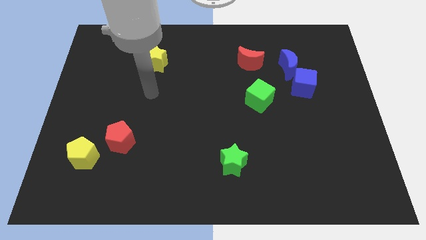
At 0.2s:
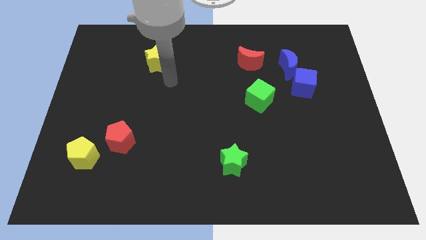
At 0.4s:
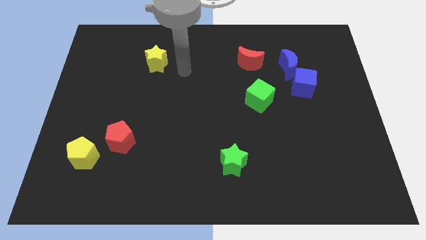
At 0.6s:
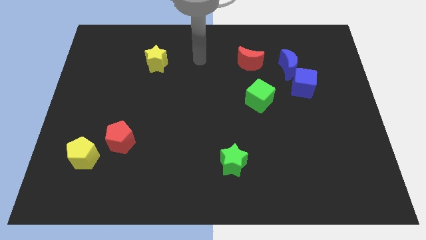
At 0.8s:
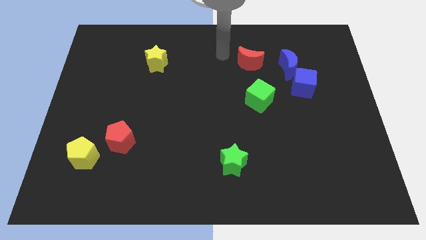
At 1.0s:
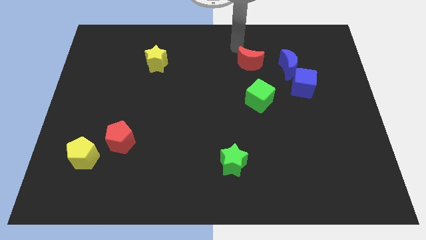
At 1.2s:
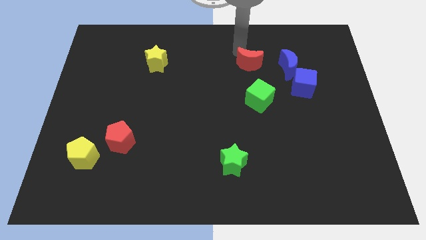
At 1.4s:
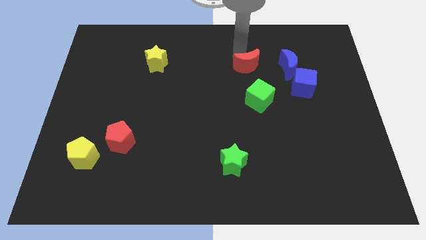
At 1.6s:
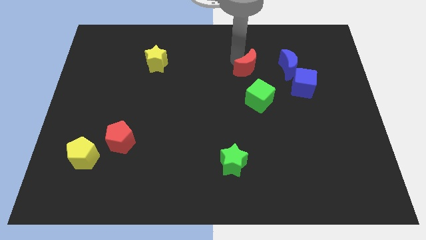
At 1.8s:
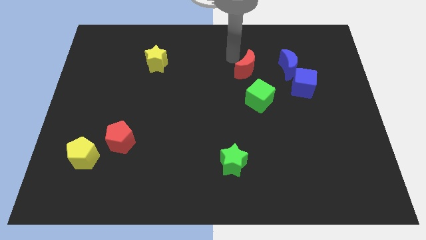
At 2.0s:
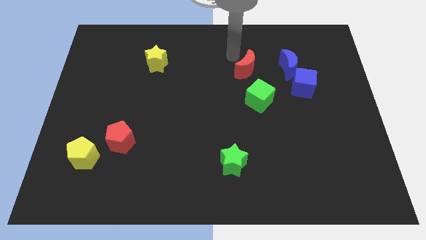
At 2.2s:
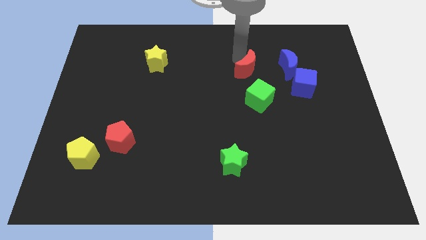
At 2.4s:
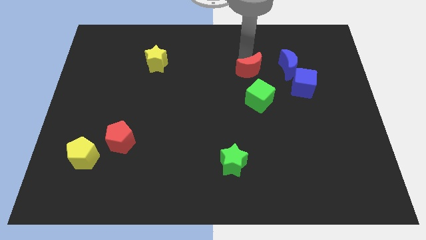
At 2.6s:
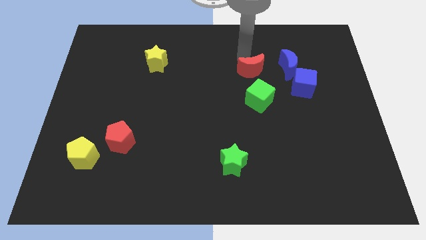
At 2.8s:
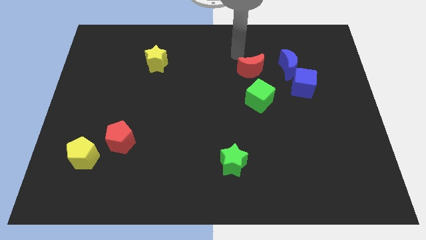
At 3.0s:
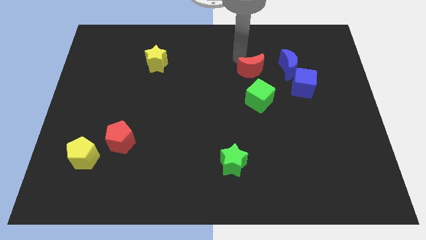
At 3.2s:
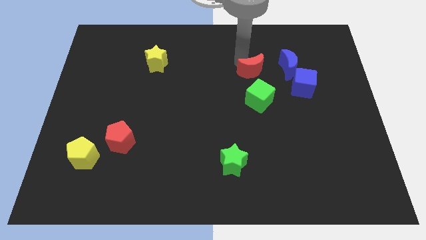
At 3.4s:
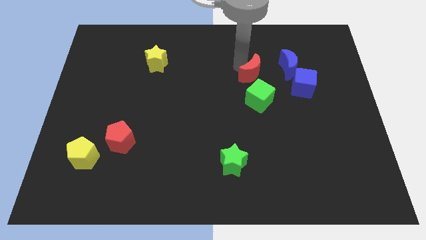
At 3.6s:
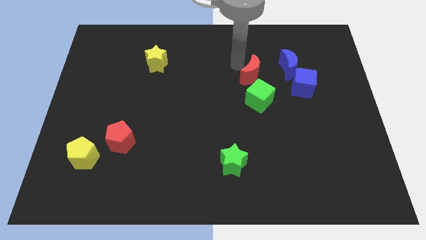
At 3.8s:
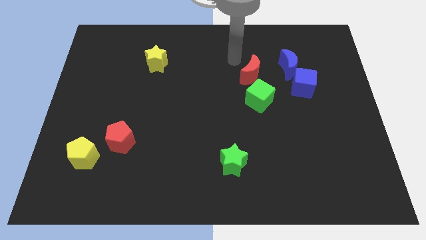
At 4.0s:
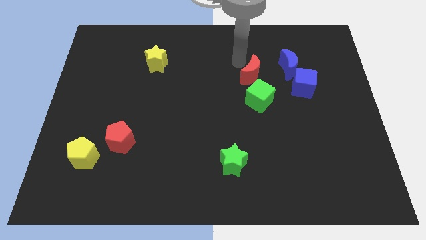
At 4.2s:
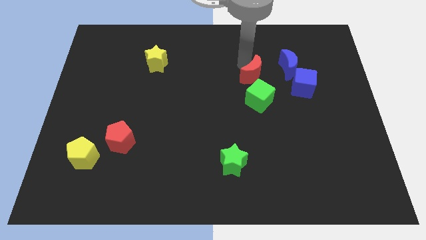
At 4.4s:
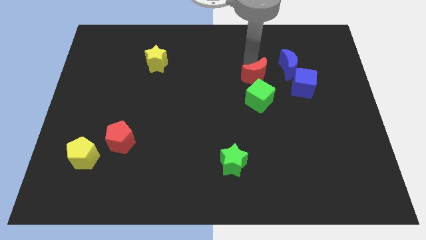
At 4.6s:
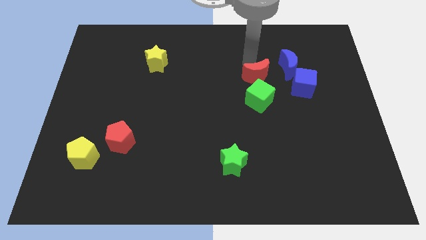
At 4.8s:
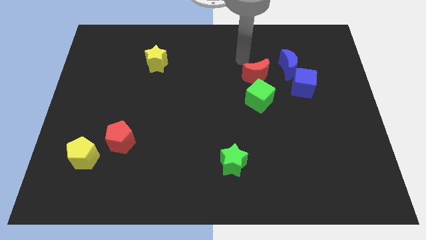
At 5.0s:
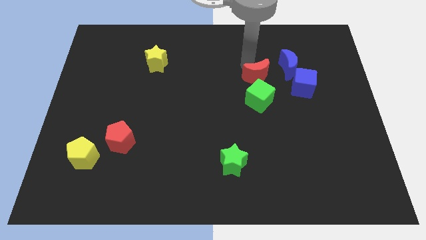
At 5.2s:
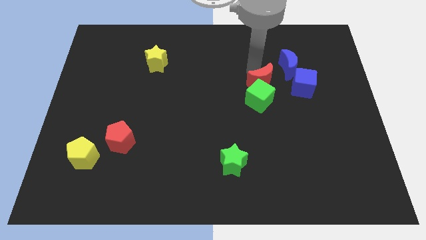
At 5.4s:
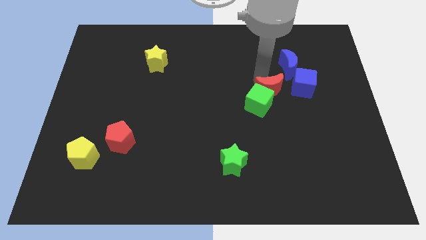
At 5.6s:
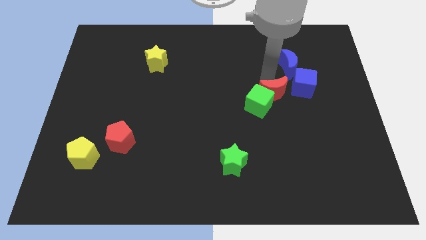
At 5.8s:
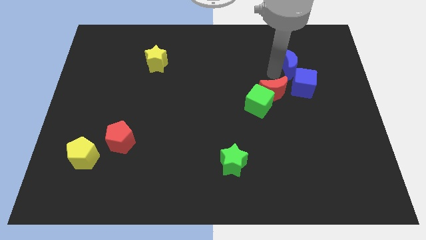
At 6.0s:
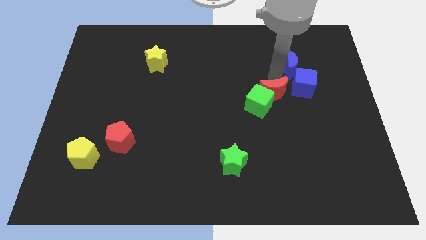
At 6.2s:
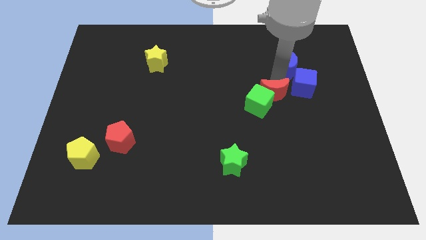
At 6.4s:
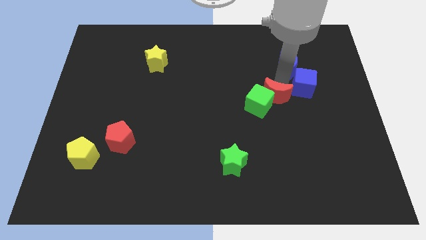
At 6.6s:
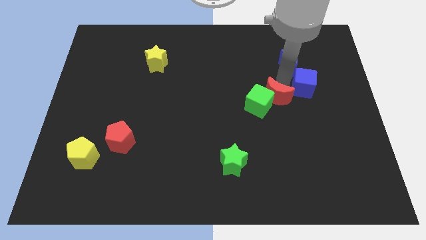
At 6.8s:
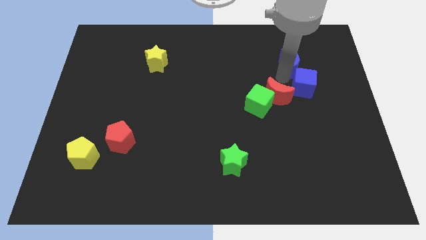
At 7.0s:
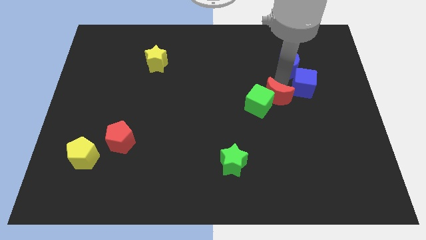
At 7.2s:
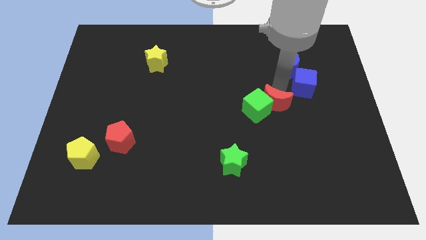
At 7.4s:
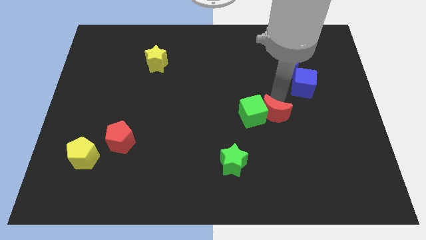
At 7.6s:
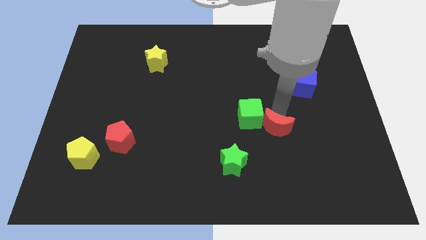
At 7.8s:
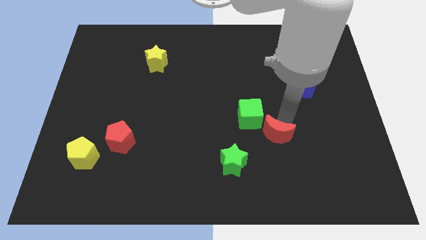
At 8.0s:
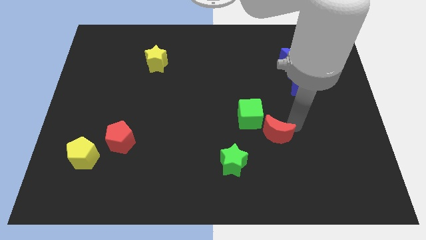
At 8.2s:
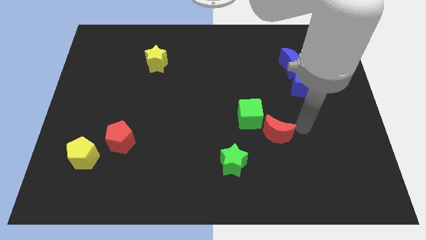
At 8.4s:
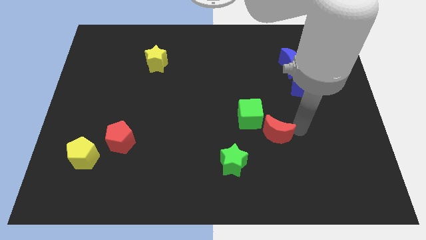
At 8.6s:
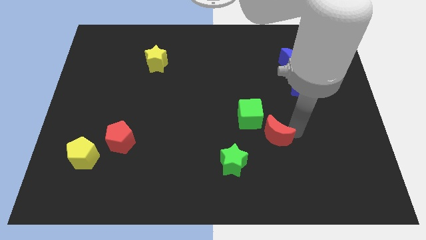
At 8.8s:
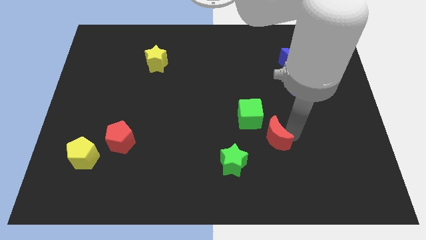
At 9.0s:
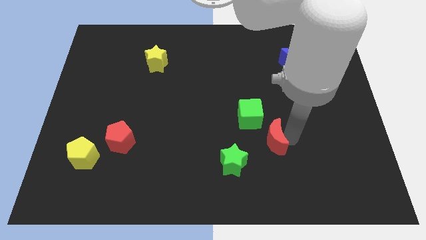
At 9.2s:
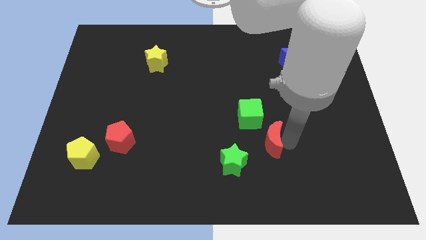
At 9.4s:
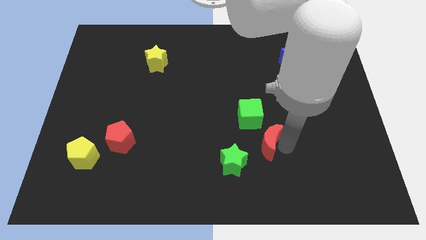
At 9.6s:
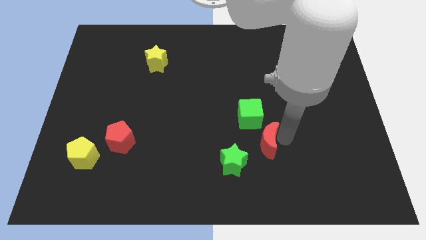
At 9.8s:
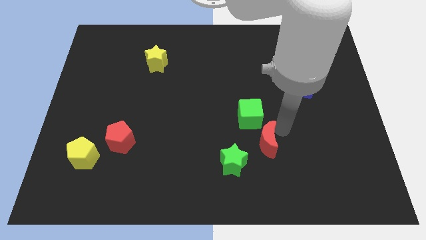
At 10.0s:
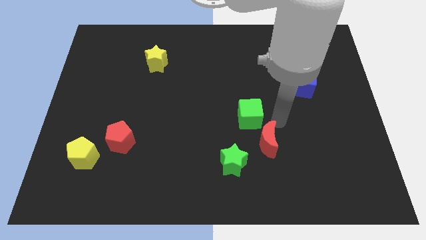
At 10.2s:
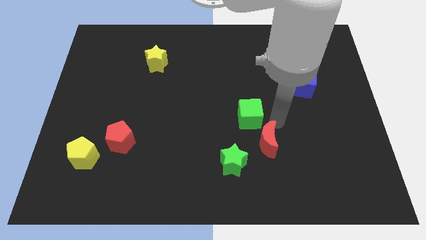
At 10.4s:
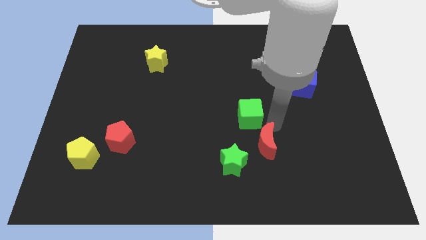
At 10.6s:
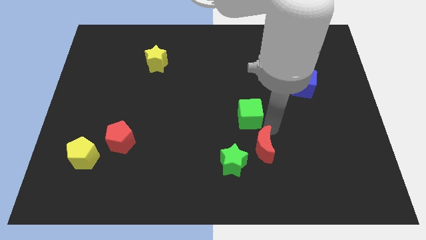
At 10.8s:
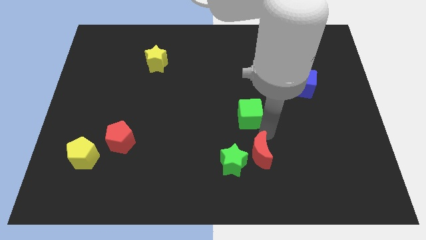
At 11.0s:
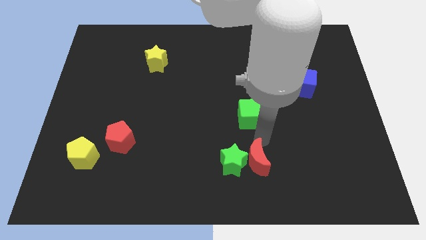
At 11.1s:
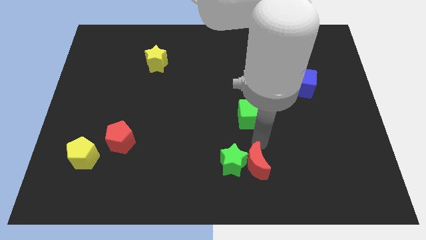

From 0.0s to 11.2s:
put the red moon to the bottom
